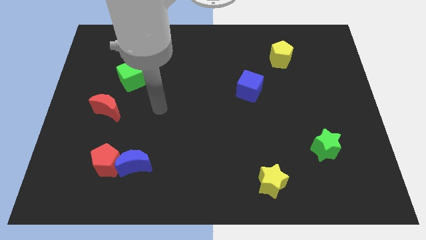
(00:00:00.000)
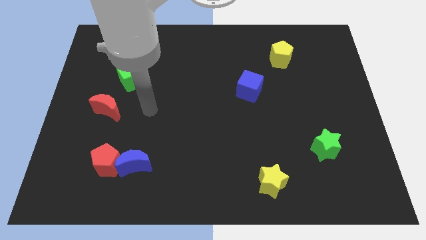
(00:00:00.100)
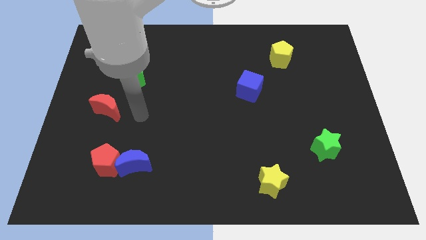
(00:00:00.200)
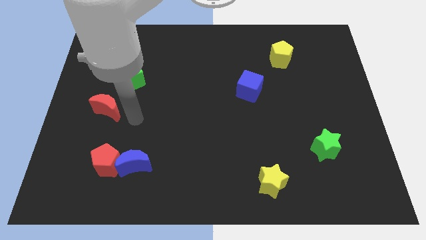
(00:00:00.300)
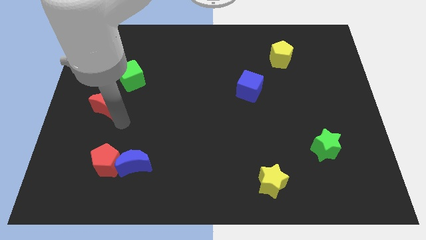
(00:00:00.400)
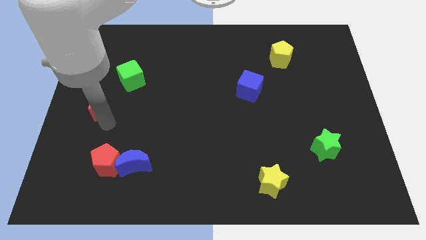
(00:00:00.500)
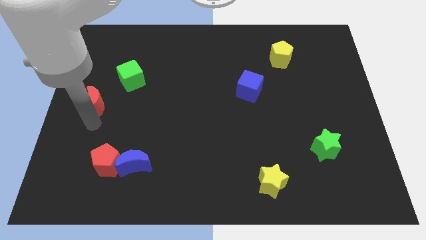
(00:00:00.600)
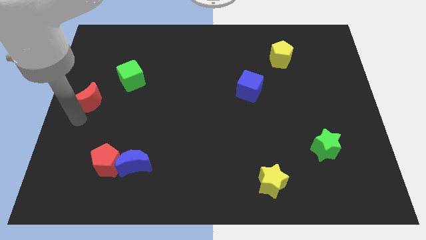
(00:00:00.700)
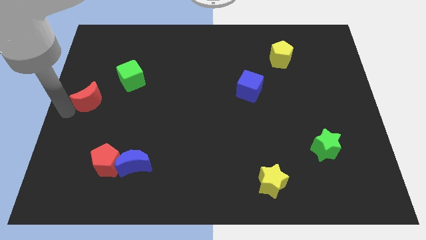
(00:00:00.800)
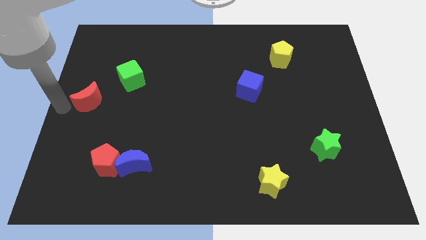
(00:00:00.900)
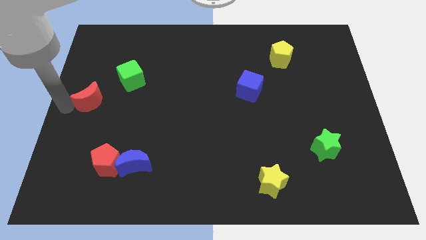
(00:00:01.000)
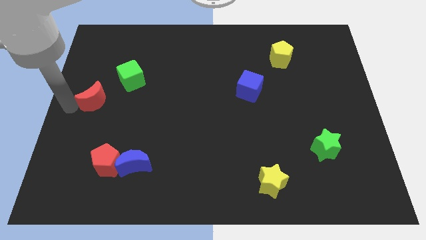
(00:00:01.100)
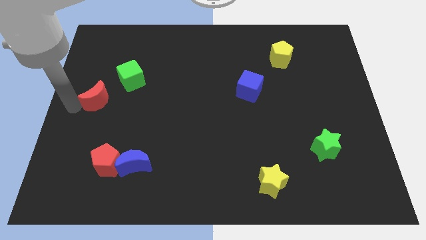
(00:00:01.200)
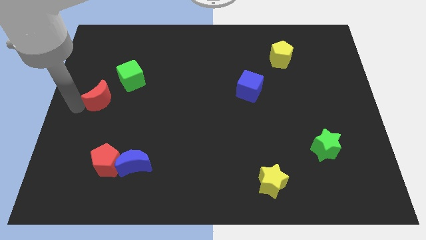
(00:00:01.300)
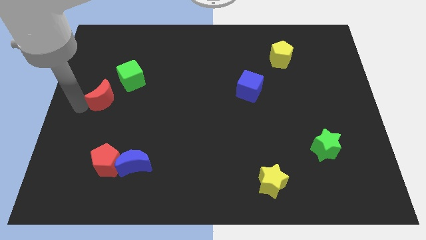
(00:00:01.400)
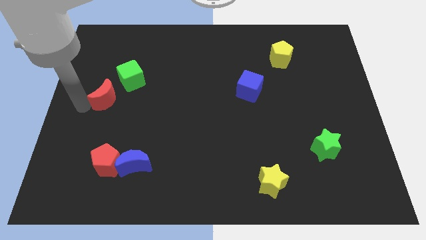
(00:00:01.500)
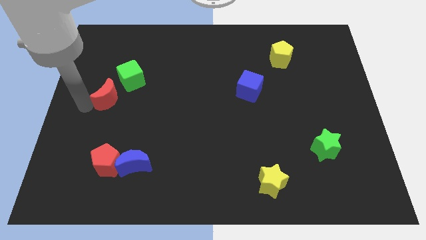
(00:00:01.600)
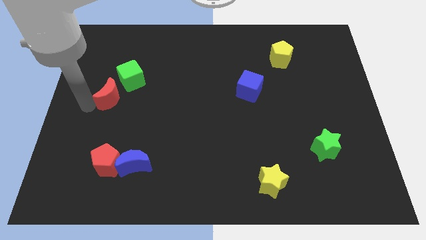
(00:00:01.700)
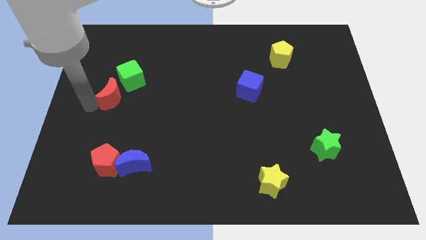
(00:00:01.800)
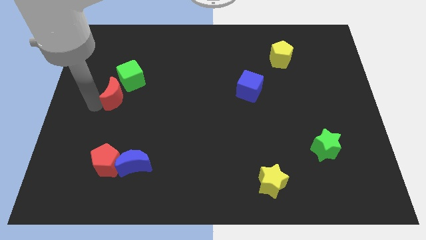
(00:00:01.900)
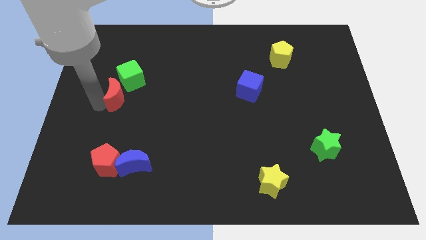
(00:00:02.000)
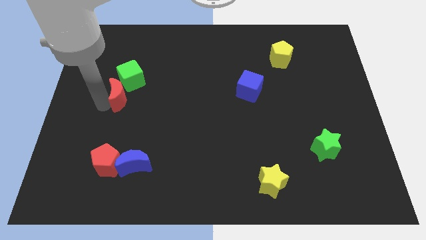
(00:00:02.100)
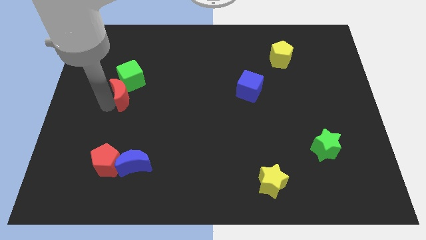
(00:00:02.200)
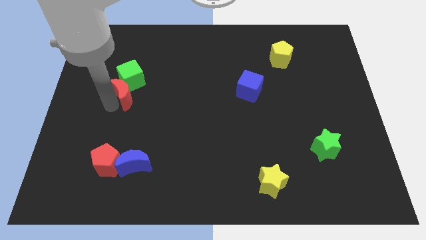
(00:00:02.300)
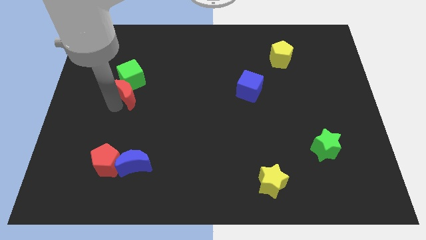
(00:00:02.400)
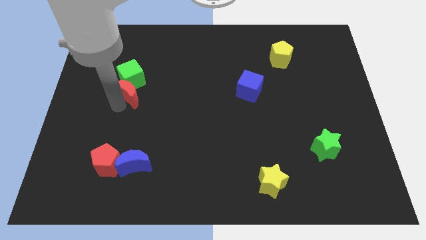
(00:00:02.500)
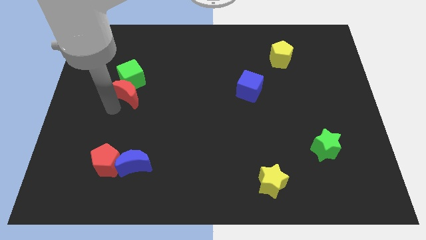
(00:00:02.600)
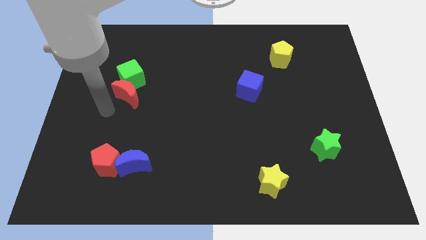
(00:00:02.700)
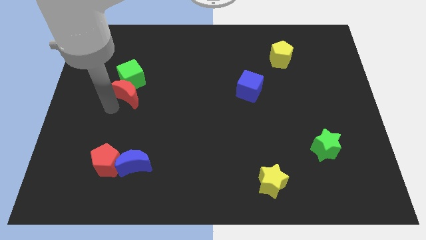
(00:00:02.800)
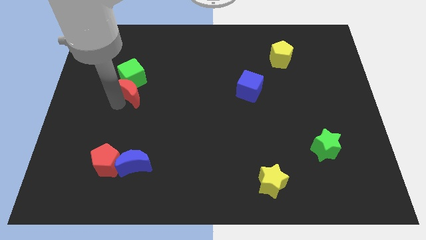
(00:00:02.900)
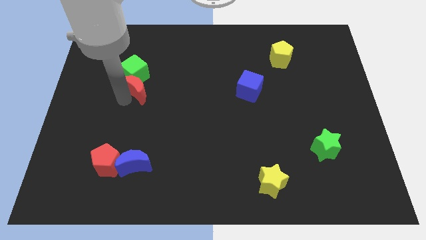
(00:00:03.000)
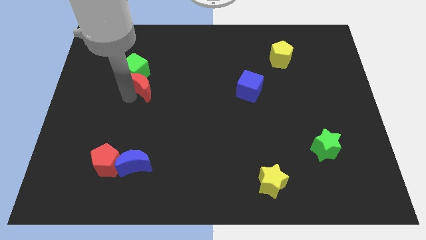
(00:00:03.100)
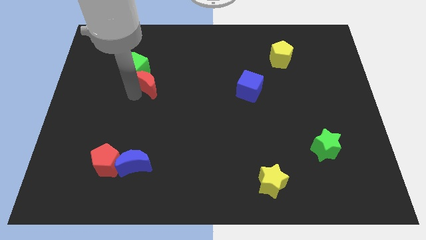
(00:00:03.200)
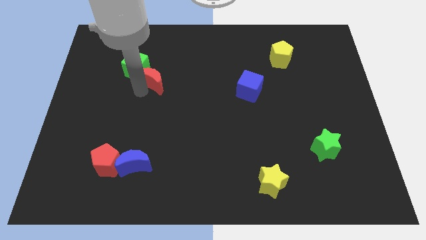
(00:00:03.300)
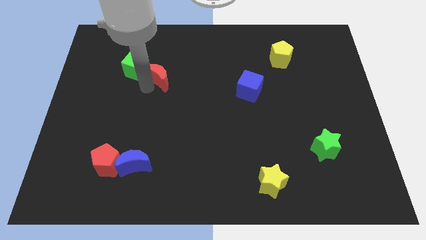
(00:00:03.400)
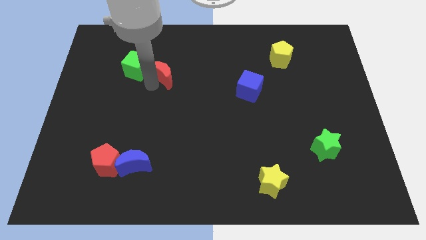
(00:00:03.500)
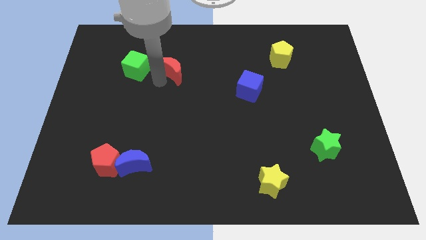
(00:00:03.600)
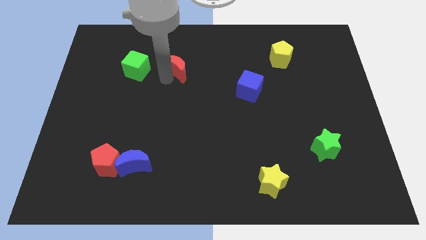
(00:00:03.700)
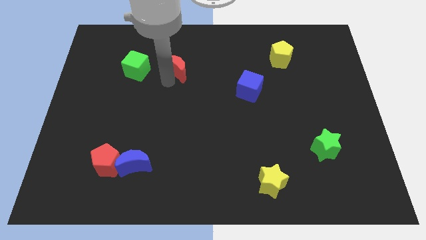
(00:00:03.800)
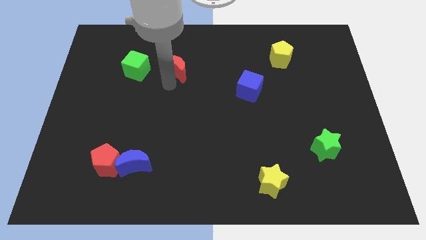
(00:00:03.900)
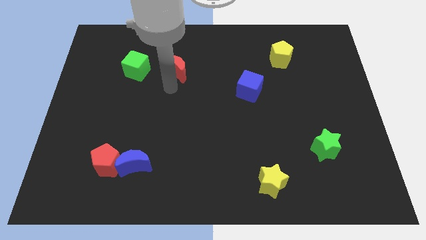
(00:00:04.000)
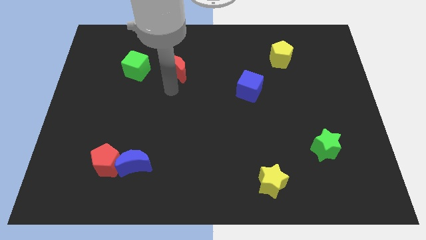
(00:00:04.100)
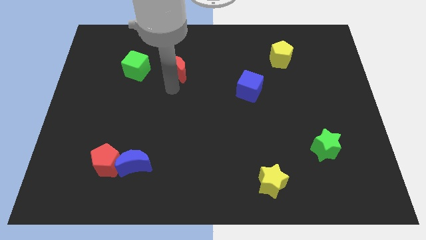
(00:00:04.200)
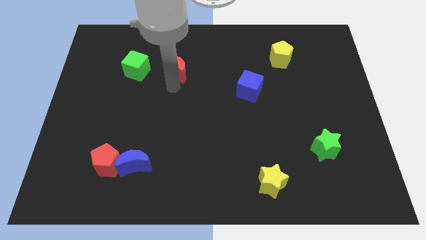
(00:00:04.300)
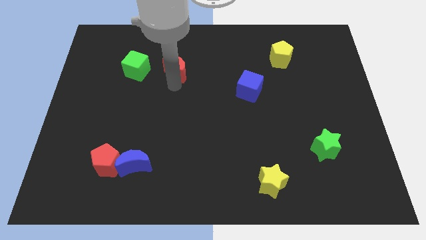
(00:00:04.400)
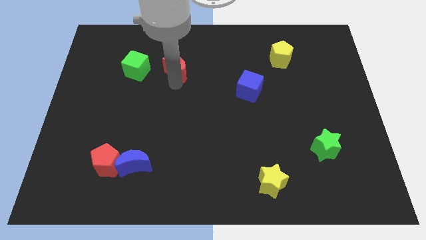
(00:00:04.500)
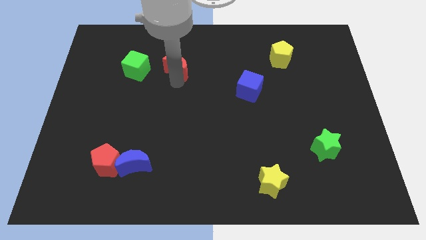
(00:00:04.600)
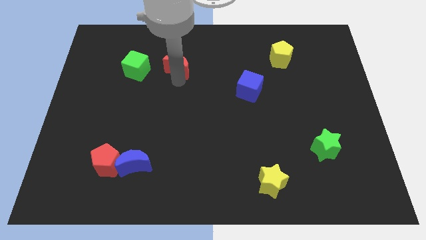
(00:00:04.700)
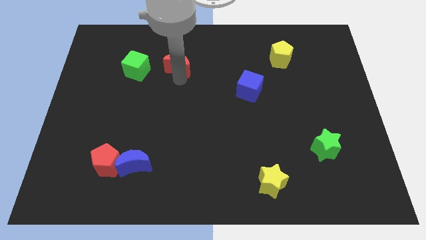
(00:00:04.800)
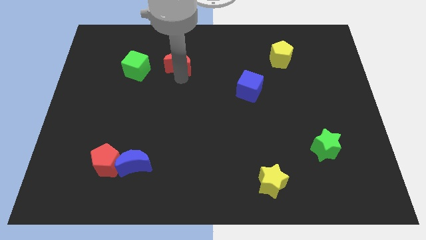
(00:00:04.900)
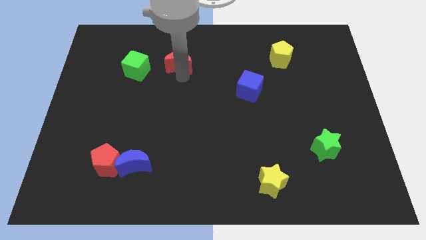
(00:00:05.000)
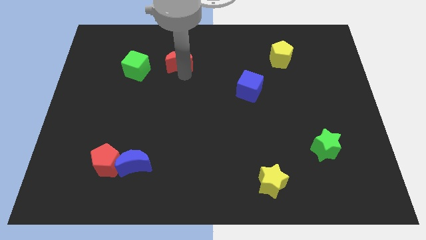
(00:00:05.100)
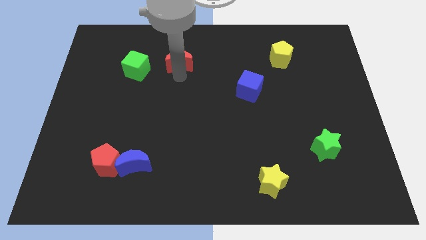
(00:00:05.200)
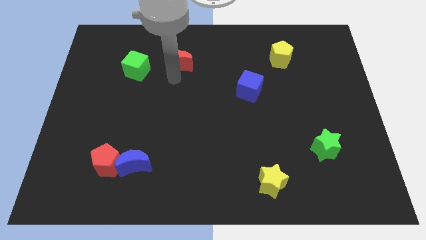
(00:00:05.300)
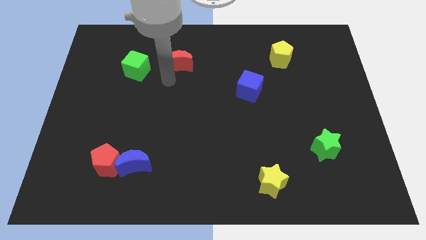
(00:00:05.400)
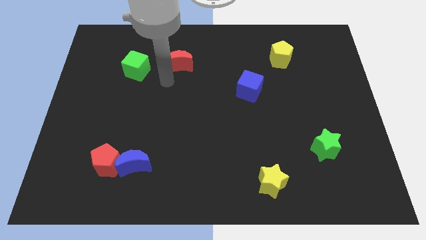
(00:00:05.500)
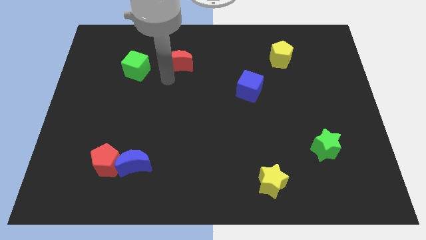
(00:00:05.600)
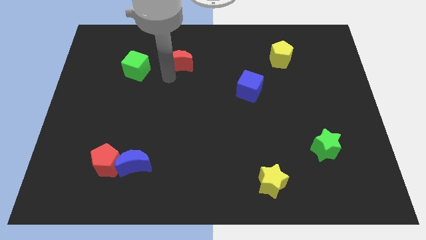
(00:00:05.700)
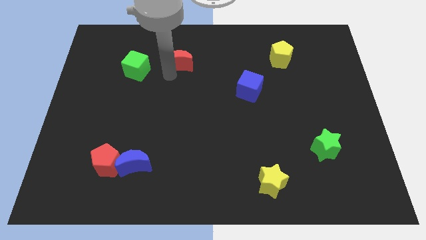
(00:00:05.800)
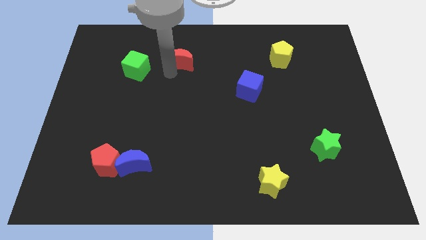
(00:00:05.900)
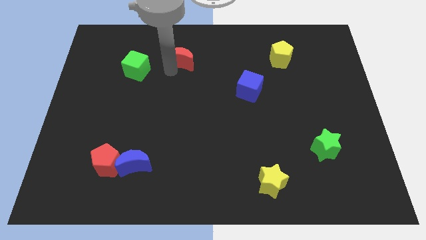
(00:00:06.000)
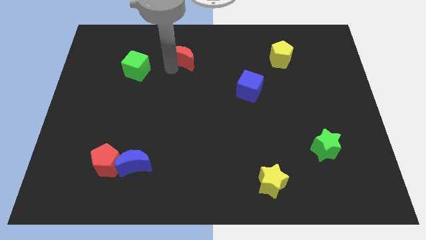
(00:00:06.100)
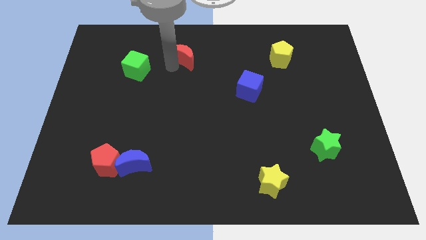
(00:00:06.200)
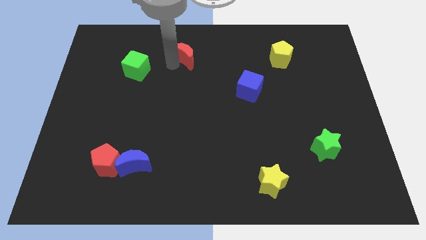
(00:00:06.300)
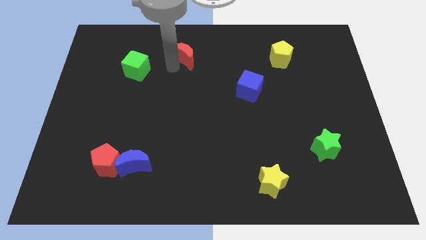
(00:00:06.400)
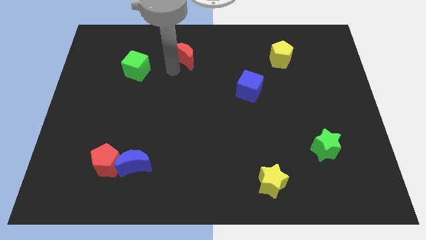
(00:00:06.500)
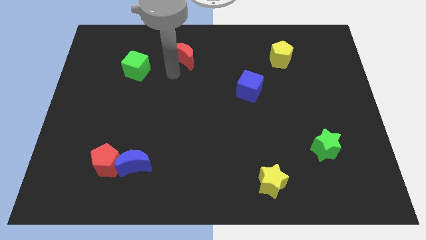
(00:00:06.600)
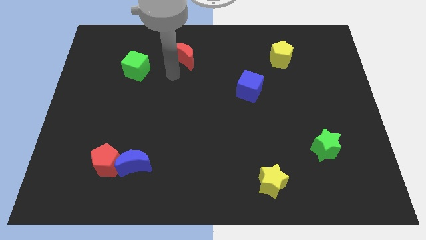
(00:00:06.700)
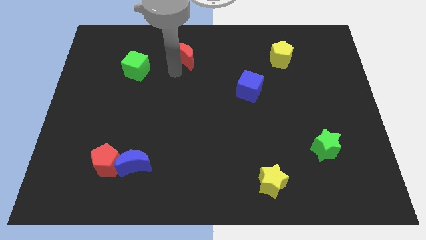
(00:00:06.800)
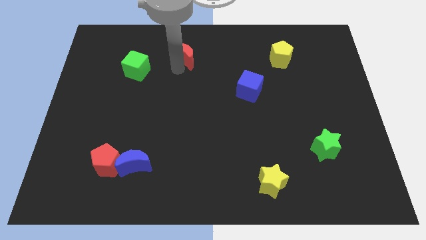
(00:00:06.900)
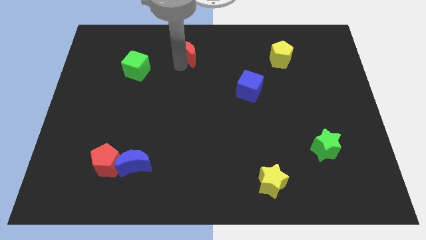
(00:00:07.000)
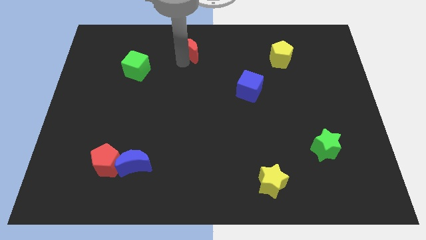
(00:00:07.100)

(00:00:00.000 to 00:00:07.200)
slide the red moon to the top

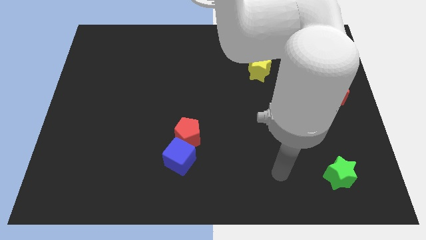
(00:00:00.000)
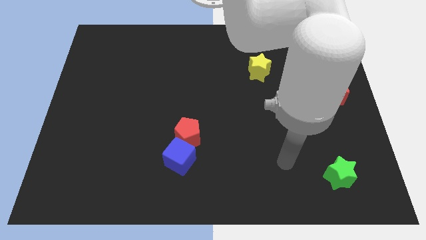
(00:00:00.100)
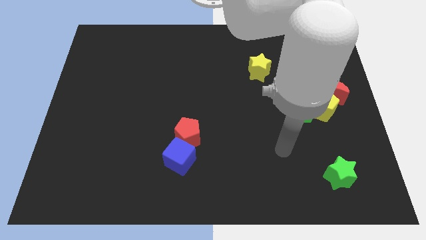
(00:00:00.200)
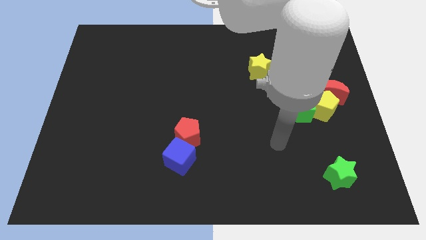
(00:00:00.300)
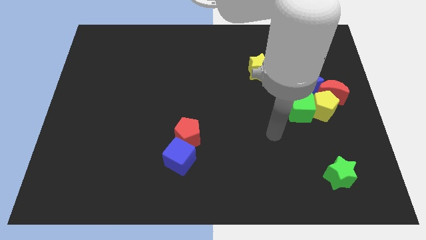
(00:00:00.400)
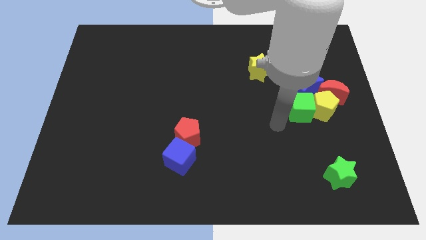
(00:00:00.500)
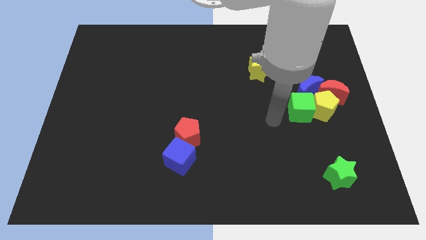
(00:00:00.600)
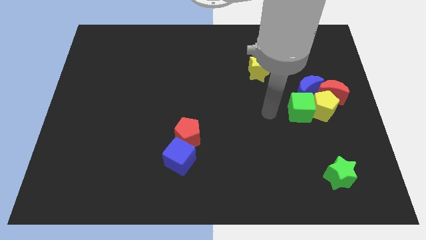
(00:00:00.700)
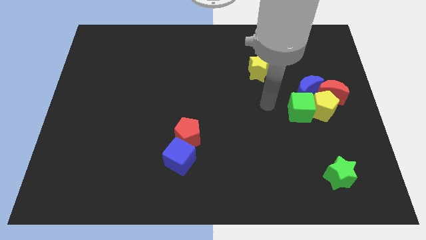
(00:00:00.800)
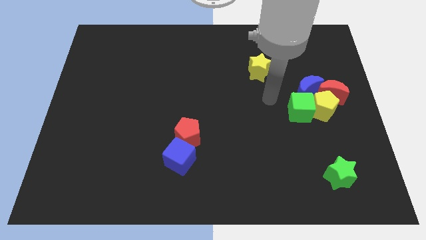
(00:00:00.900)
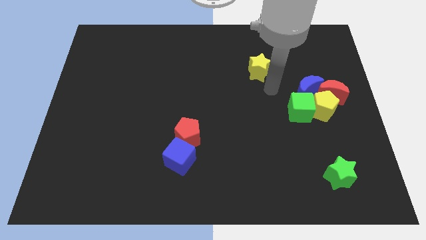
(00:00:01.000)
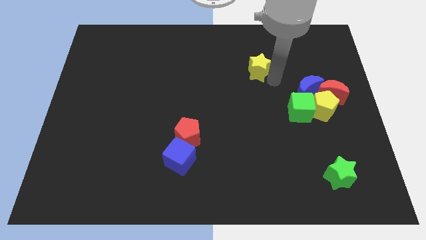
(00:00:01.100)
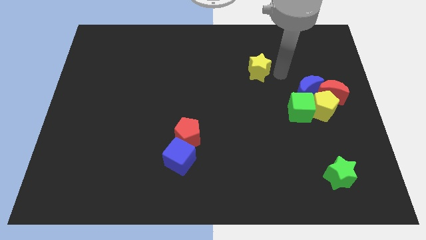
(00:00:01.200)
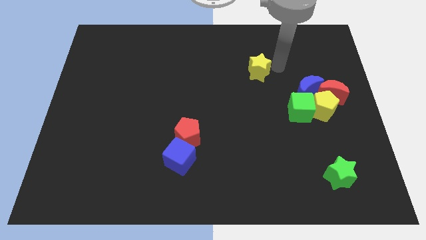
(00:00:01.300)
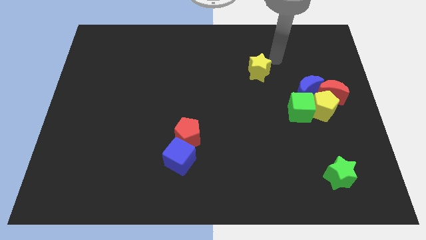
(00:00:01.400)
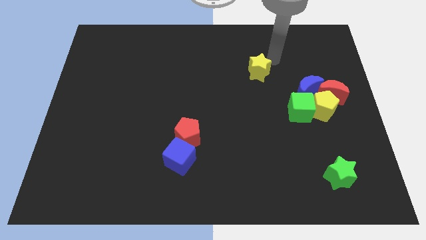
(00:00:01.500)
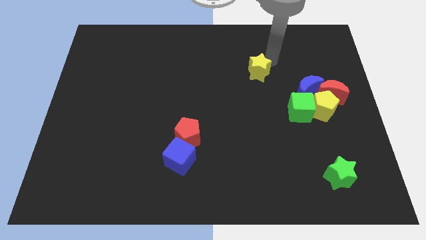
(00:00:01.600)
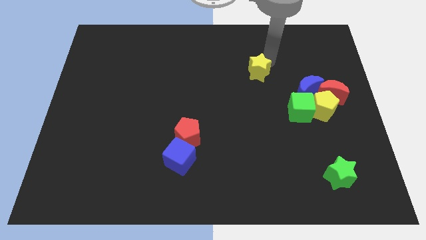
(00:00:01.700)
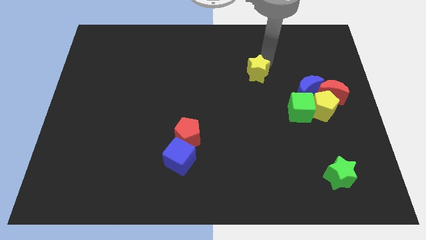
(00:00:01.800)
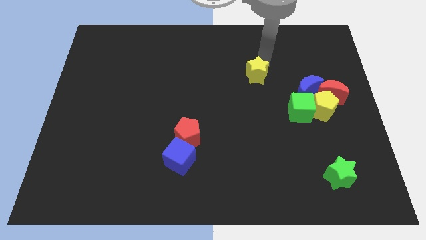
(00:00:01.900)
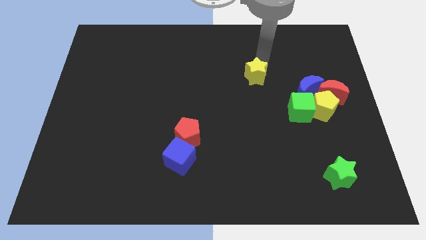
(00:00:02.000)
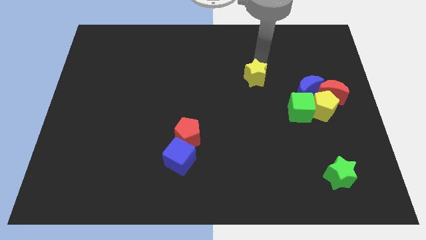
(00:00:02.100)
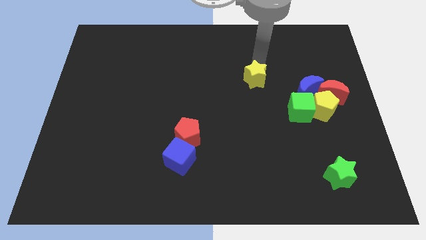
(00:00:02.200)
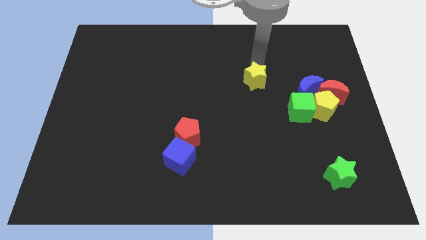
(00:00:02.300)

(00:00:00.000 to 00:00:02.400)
move the yellow star to the middle of the board
